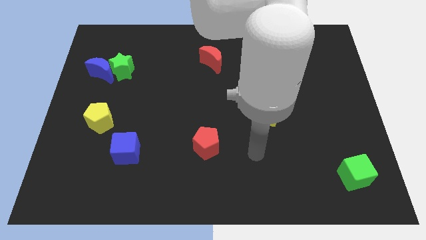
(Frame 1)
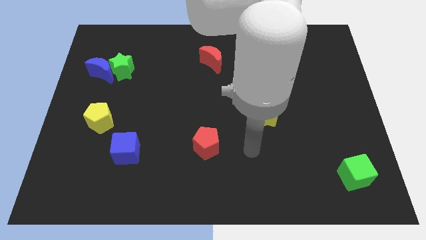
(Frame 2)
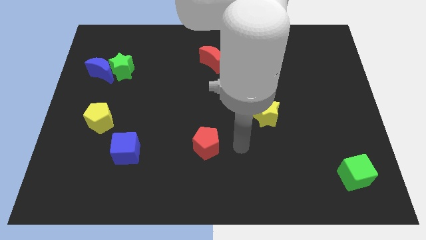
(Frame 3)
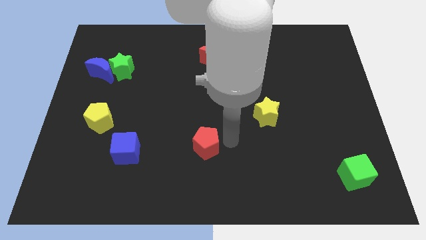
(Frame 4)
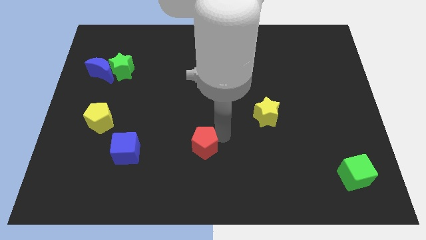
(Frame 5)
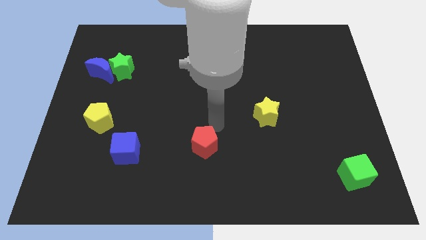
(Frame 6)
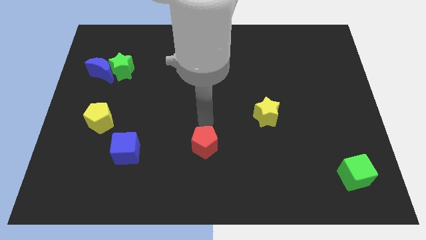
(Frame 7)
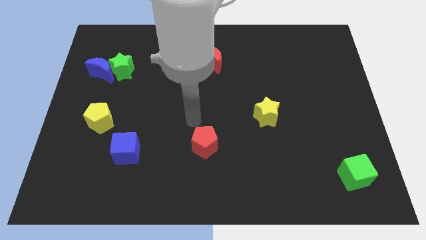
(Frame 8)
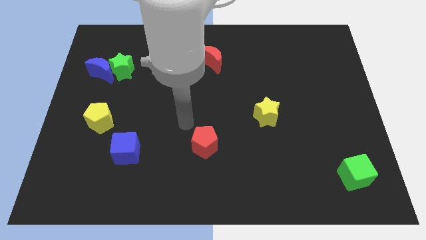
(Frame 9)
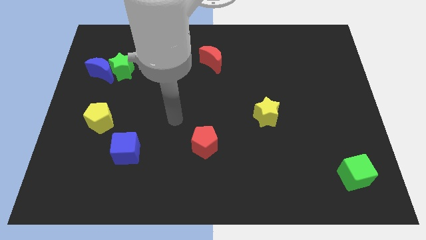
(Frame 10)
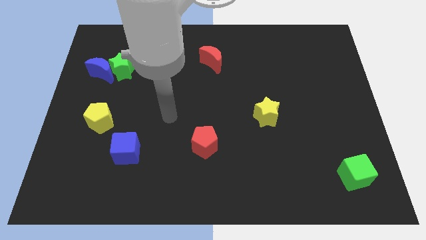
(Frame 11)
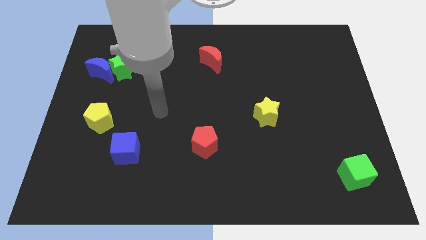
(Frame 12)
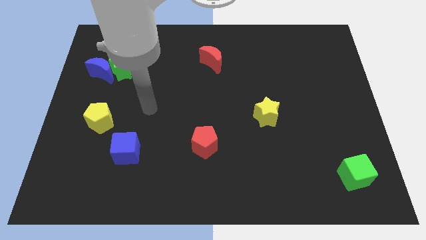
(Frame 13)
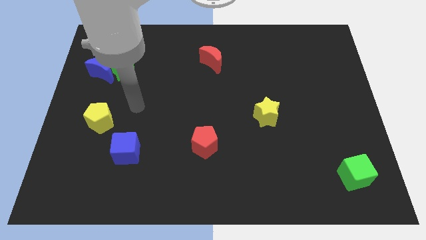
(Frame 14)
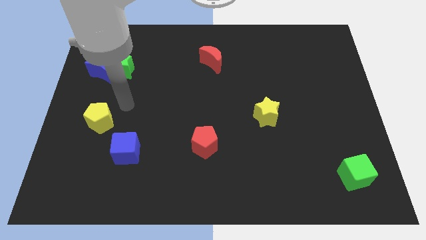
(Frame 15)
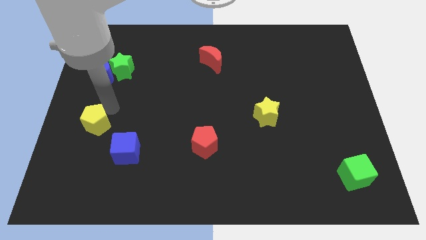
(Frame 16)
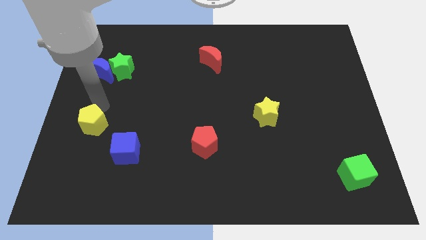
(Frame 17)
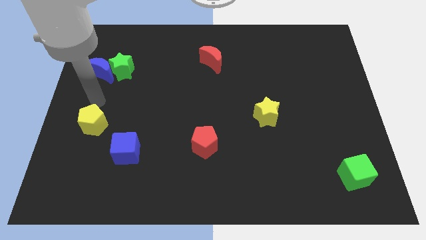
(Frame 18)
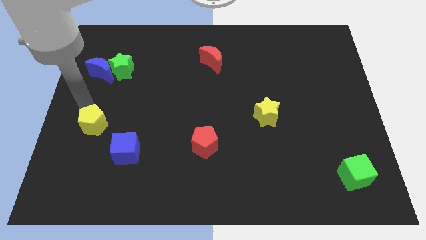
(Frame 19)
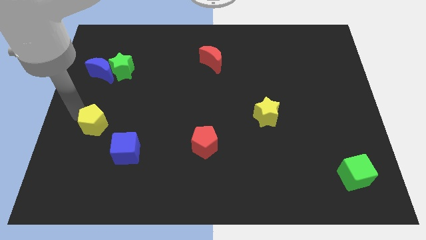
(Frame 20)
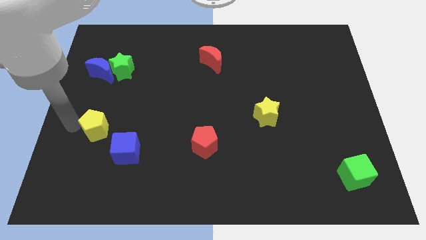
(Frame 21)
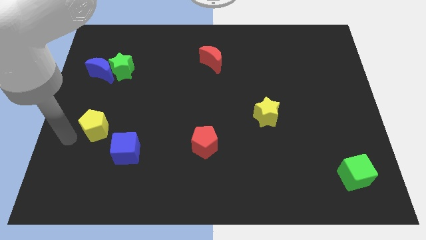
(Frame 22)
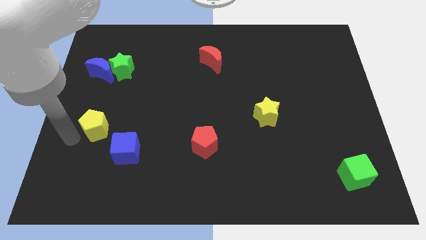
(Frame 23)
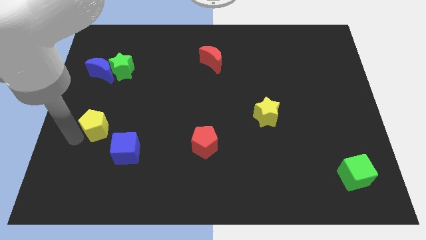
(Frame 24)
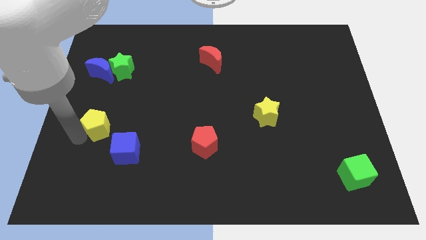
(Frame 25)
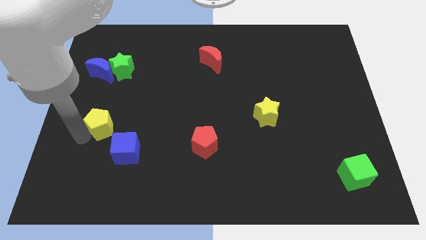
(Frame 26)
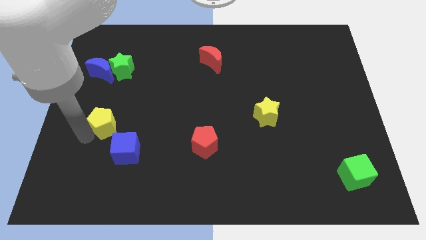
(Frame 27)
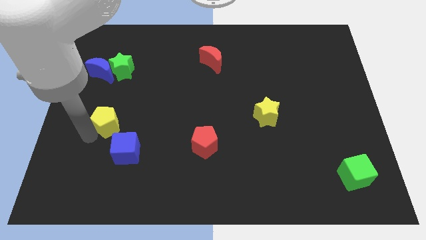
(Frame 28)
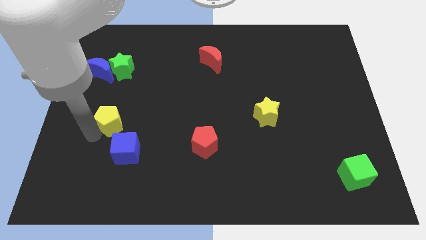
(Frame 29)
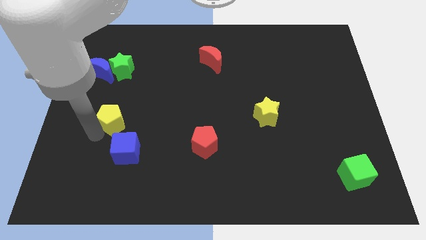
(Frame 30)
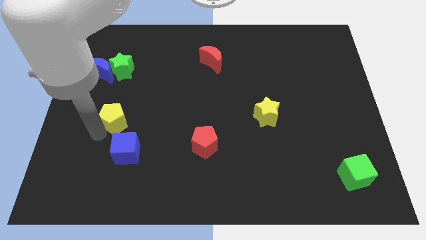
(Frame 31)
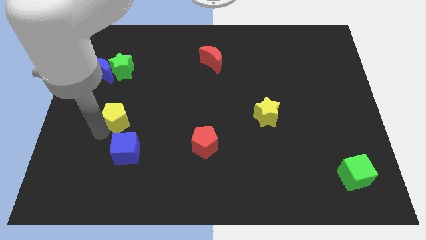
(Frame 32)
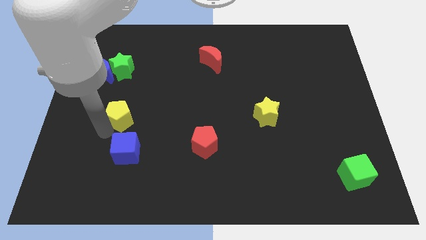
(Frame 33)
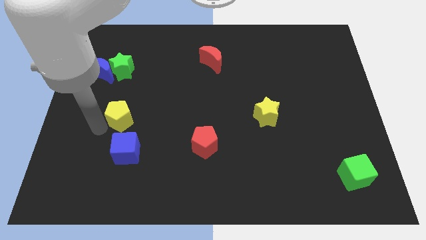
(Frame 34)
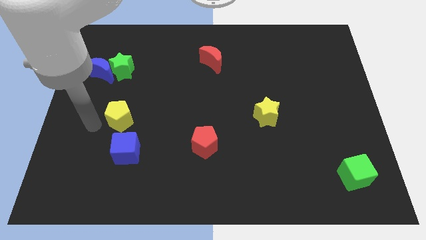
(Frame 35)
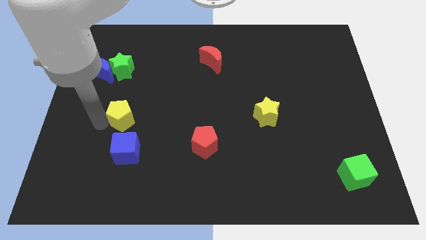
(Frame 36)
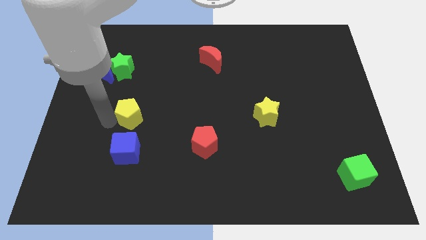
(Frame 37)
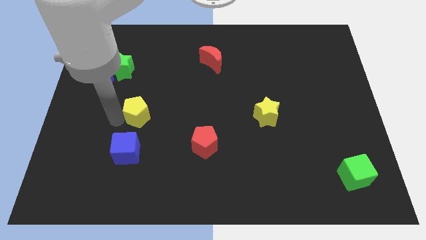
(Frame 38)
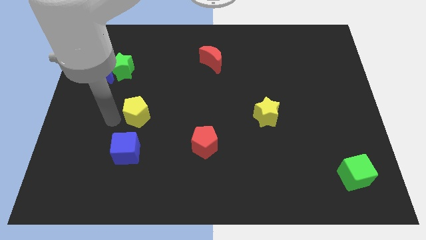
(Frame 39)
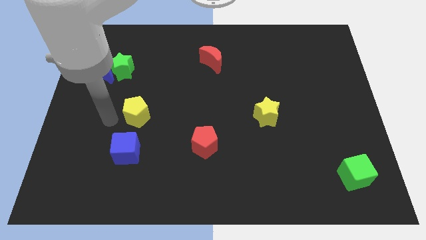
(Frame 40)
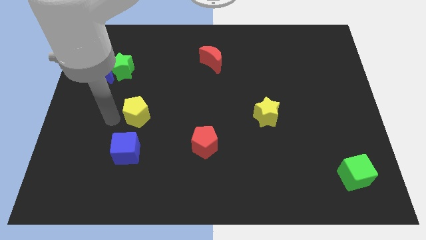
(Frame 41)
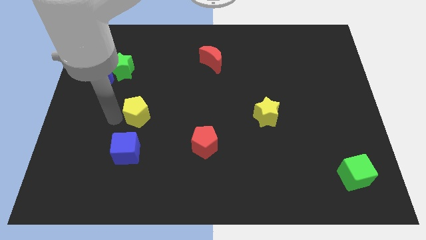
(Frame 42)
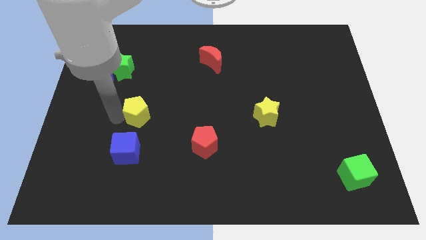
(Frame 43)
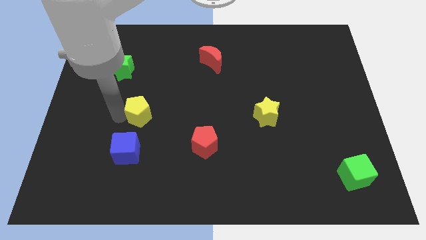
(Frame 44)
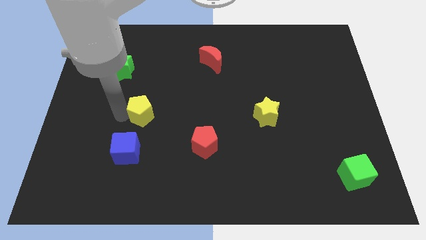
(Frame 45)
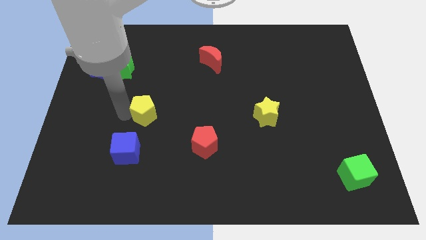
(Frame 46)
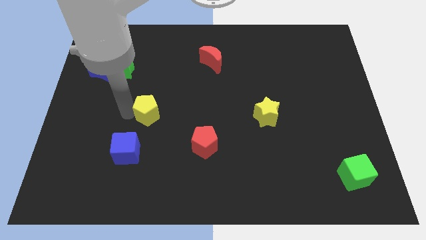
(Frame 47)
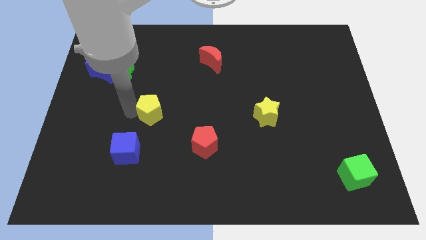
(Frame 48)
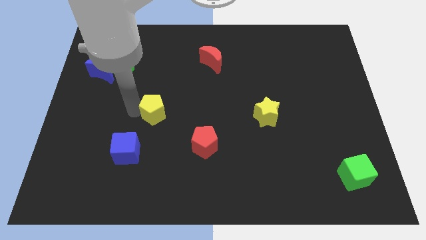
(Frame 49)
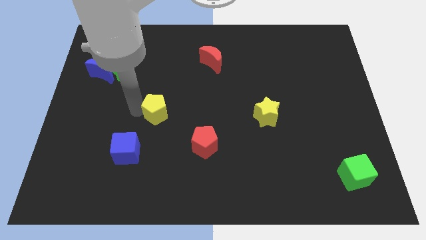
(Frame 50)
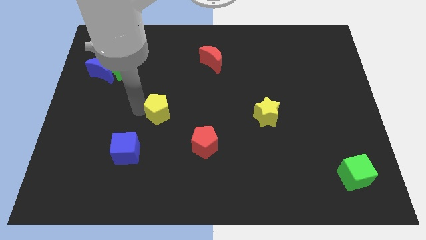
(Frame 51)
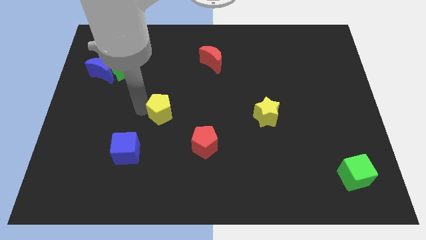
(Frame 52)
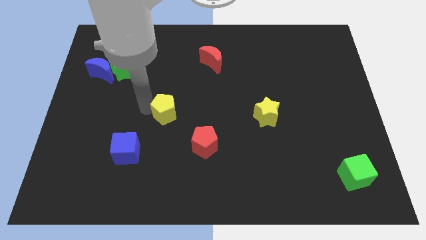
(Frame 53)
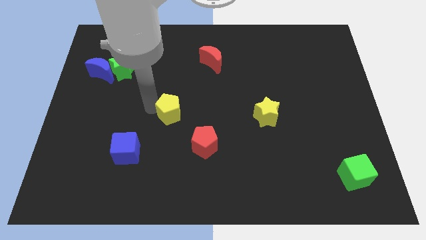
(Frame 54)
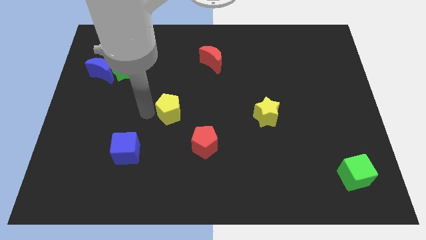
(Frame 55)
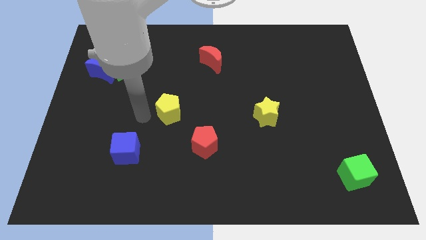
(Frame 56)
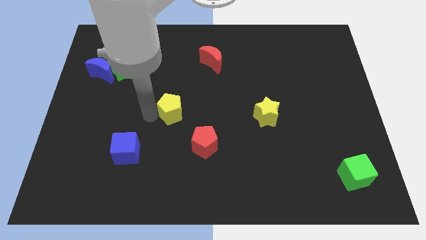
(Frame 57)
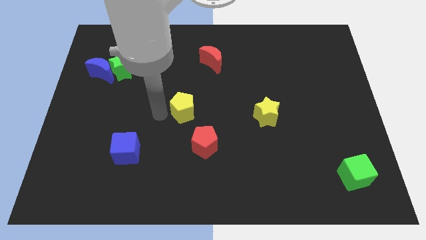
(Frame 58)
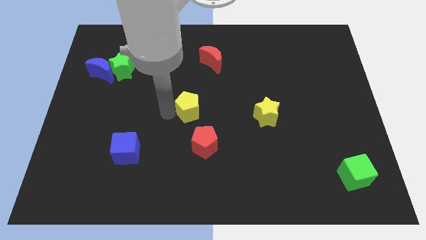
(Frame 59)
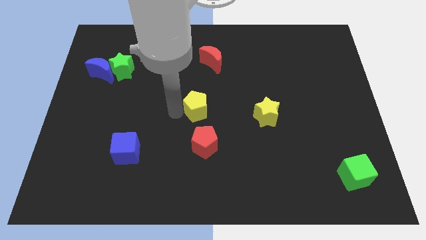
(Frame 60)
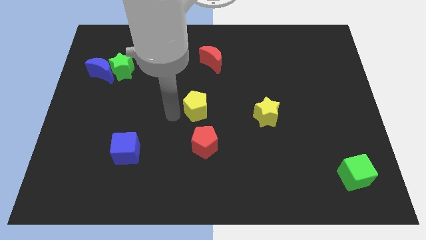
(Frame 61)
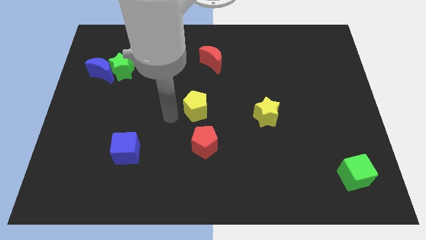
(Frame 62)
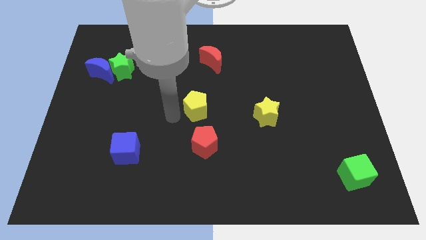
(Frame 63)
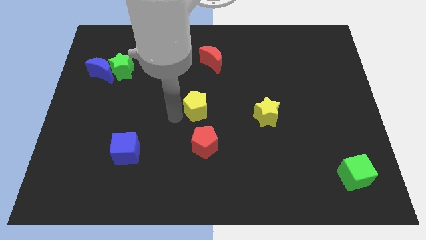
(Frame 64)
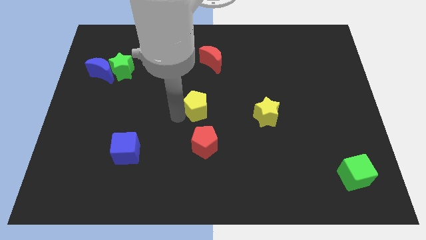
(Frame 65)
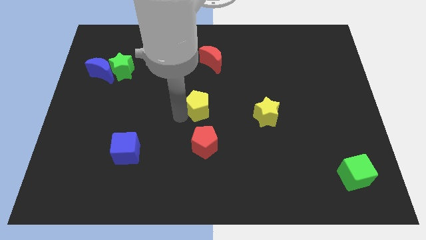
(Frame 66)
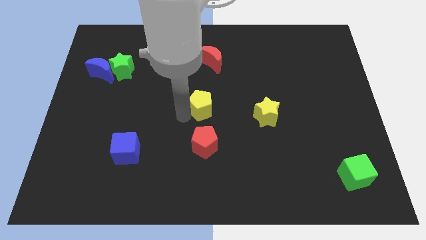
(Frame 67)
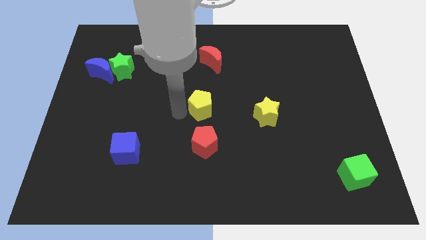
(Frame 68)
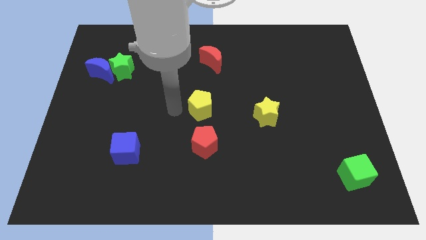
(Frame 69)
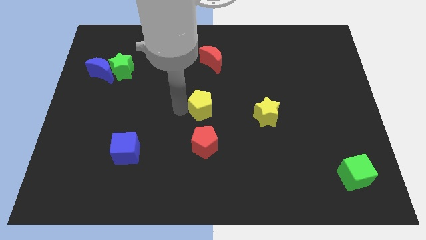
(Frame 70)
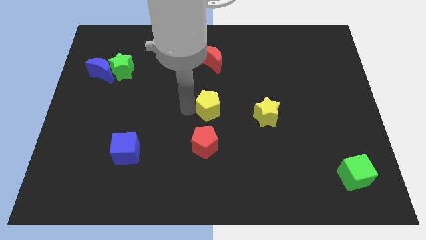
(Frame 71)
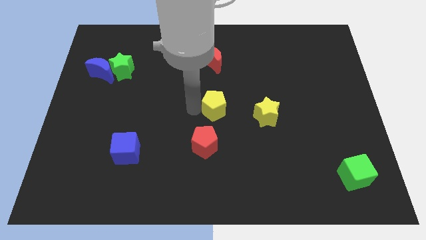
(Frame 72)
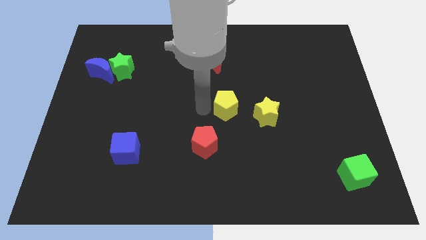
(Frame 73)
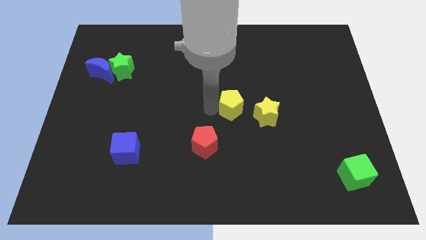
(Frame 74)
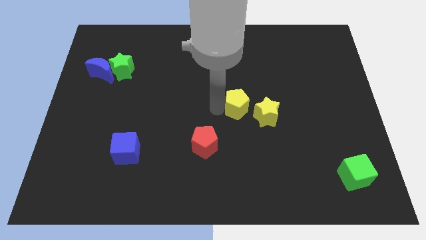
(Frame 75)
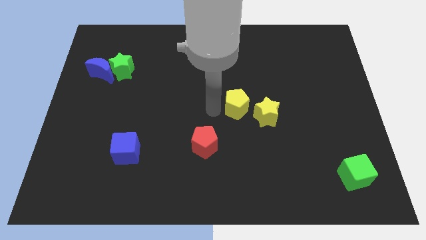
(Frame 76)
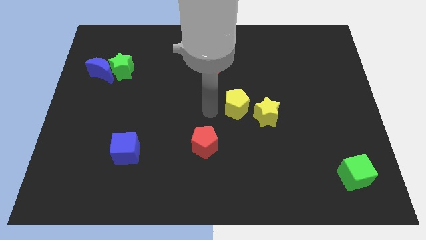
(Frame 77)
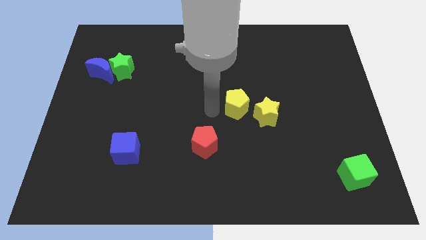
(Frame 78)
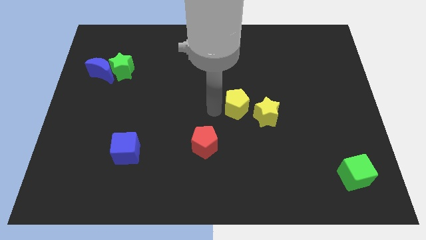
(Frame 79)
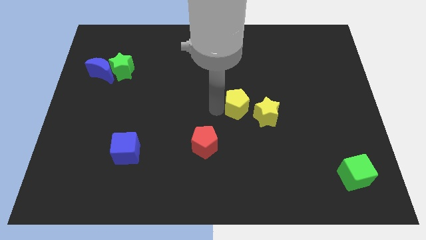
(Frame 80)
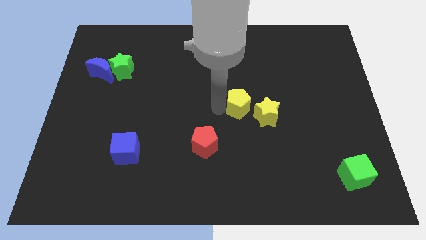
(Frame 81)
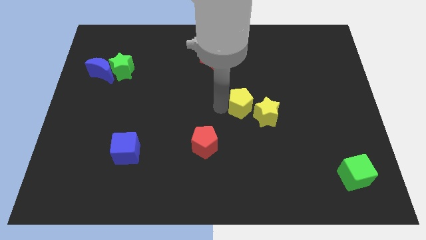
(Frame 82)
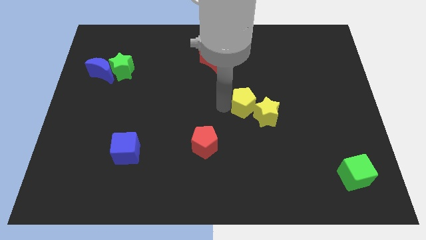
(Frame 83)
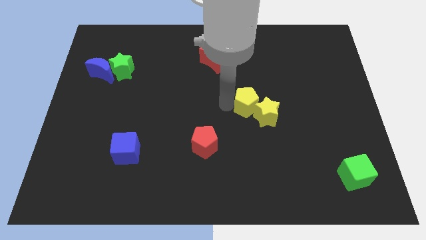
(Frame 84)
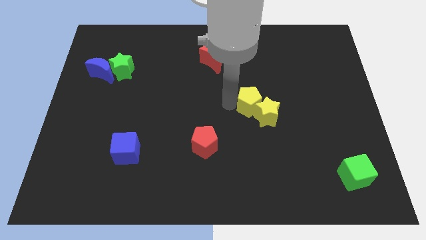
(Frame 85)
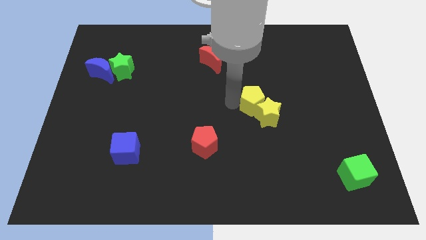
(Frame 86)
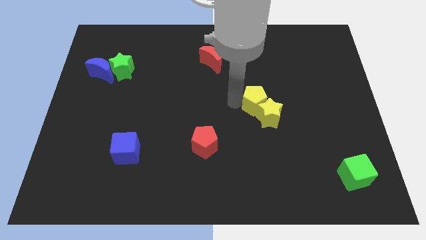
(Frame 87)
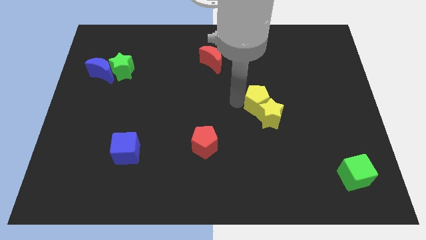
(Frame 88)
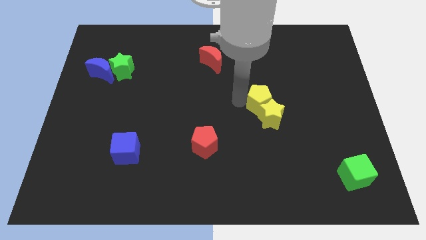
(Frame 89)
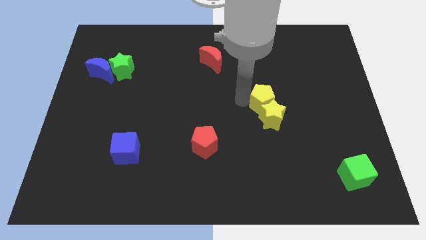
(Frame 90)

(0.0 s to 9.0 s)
push the yellow pentagon to the top right of the yellow star
